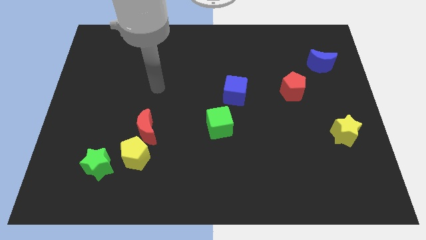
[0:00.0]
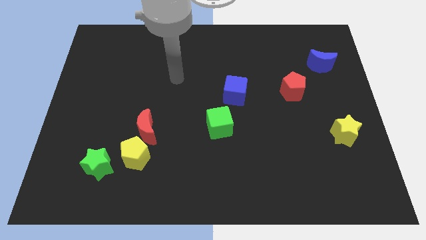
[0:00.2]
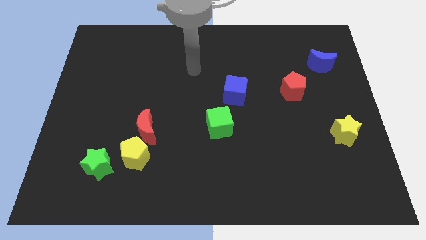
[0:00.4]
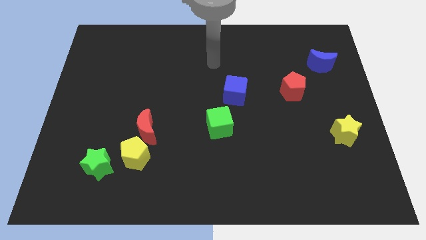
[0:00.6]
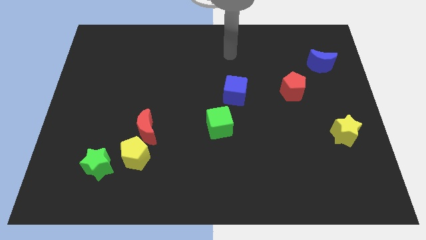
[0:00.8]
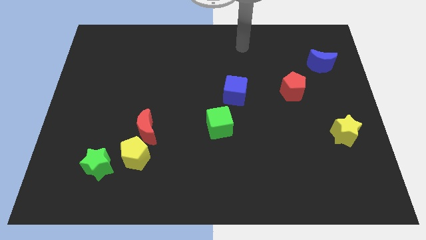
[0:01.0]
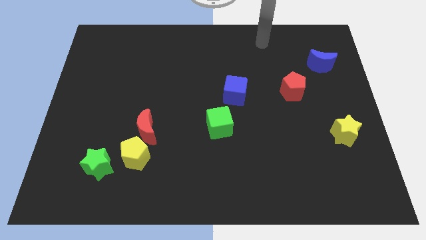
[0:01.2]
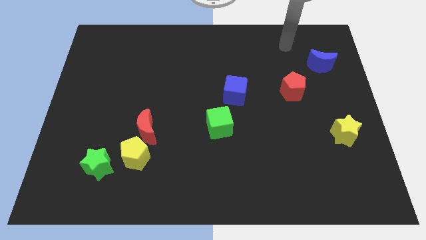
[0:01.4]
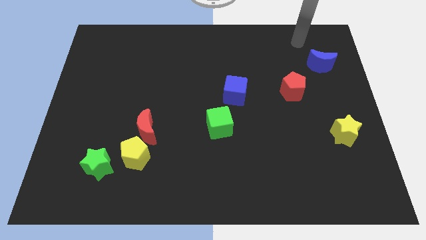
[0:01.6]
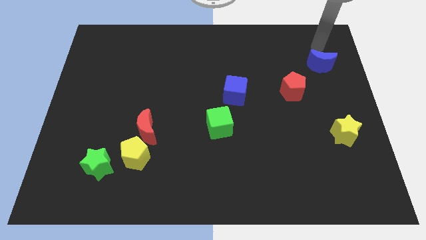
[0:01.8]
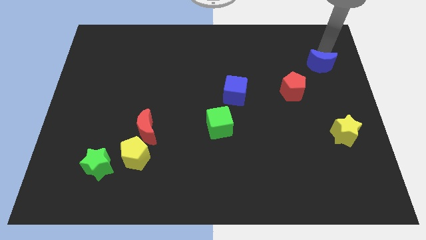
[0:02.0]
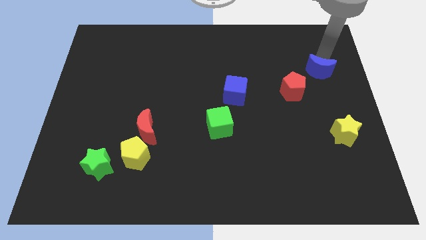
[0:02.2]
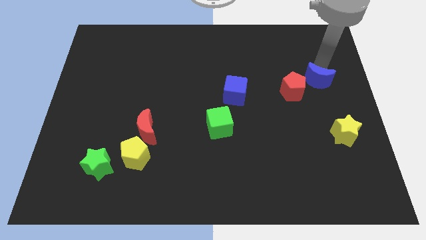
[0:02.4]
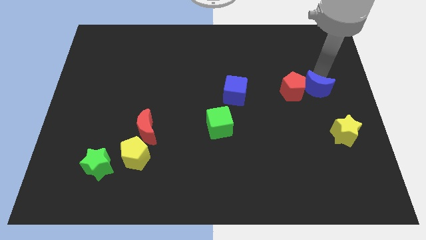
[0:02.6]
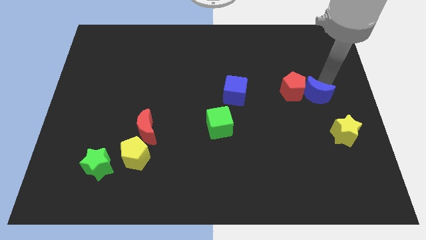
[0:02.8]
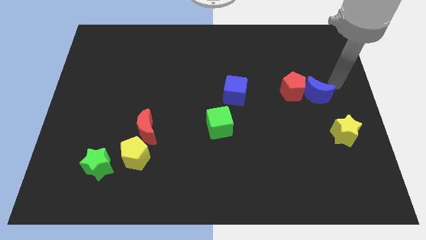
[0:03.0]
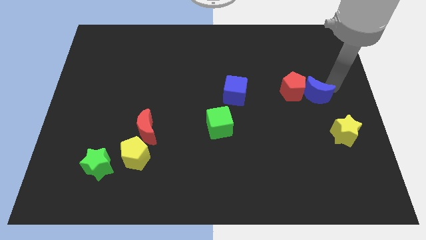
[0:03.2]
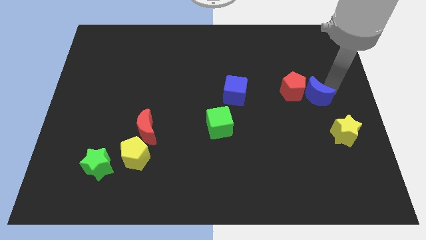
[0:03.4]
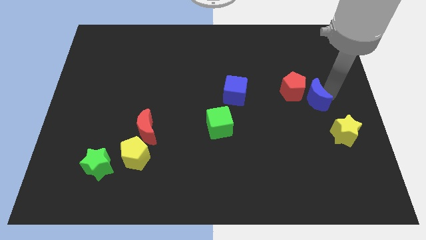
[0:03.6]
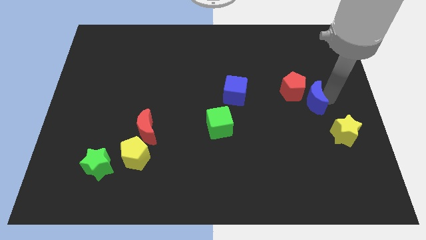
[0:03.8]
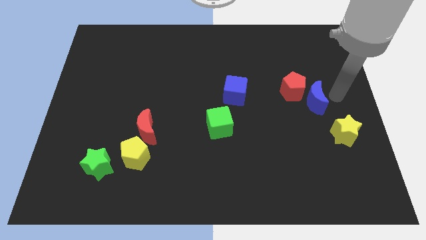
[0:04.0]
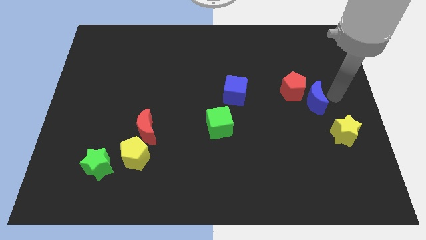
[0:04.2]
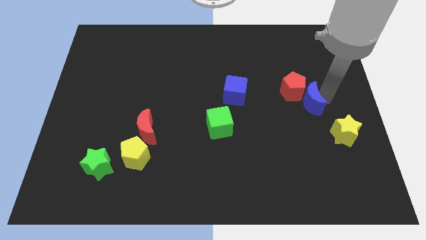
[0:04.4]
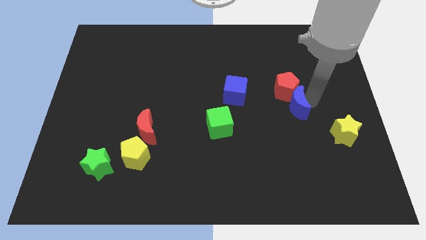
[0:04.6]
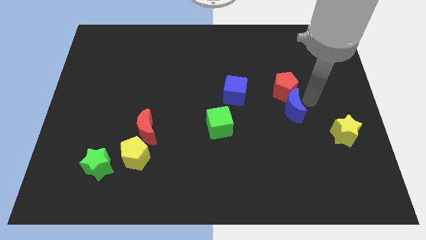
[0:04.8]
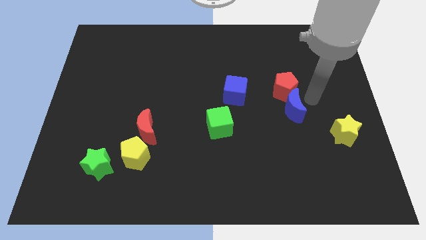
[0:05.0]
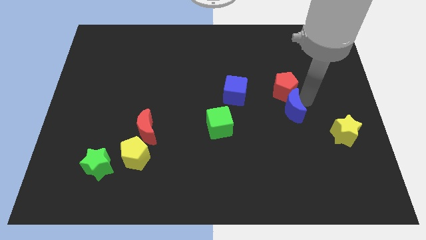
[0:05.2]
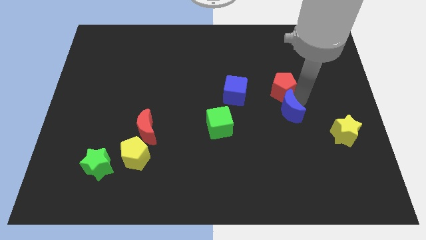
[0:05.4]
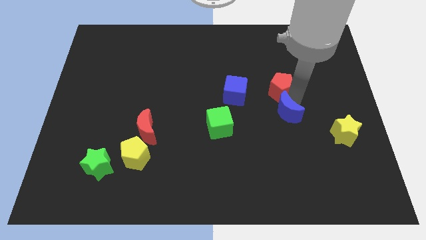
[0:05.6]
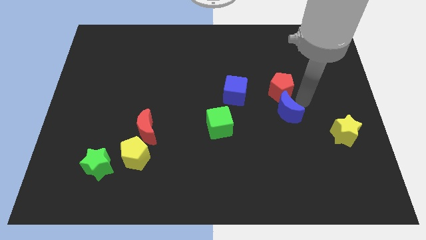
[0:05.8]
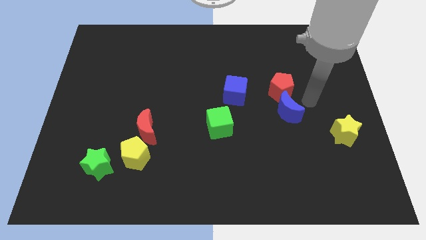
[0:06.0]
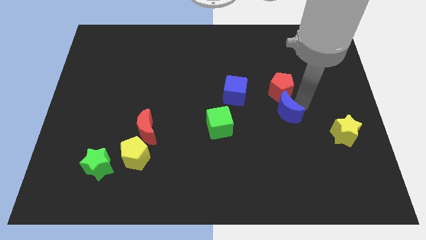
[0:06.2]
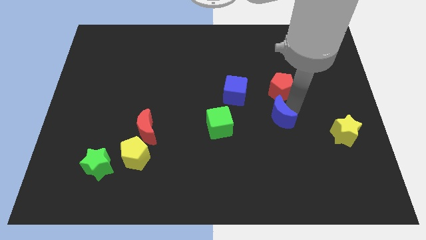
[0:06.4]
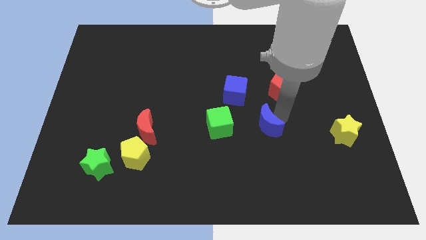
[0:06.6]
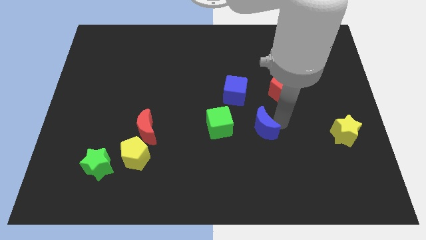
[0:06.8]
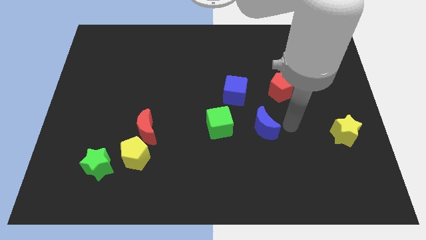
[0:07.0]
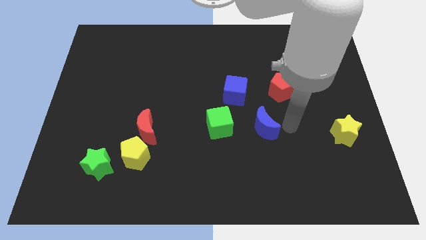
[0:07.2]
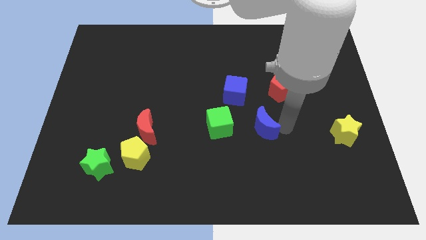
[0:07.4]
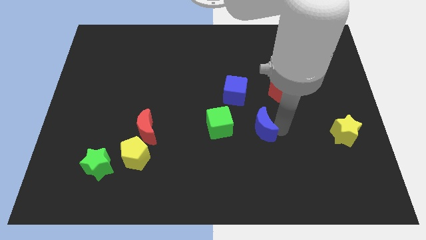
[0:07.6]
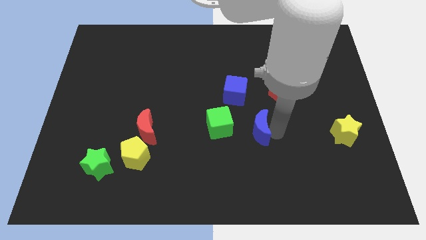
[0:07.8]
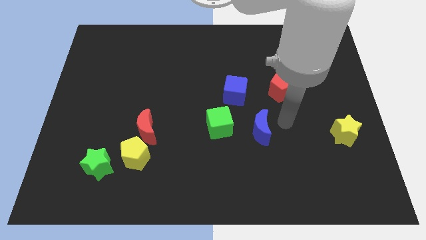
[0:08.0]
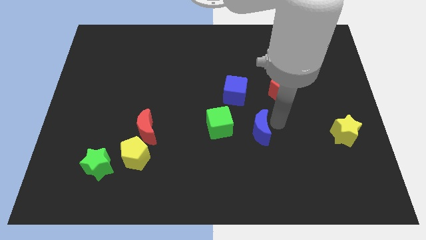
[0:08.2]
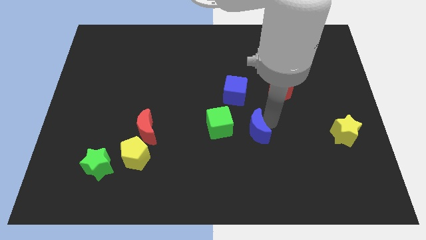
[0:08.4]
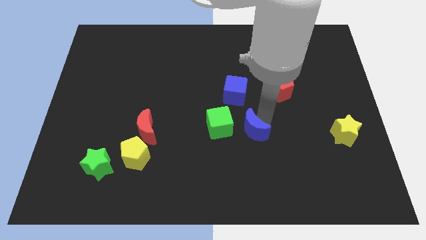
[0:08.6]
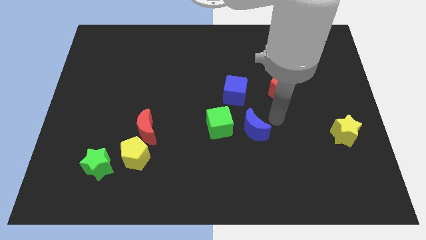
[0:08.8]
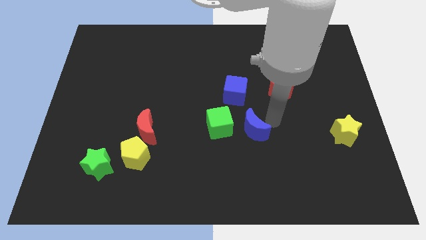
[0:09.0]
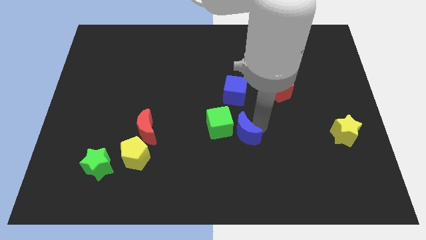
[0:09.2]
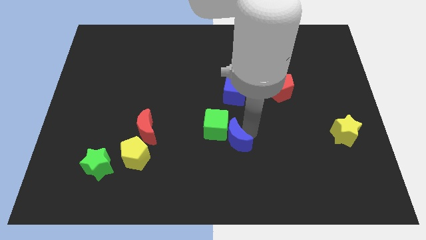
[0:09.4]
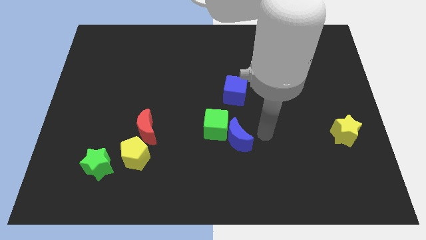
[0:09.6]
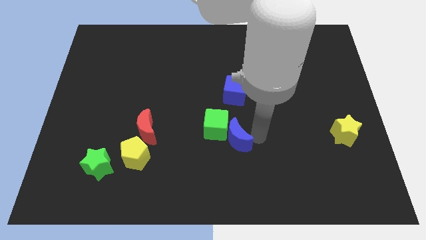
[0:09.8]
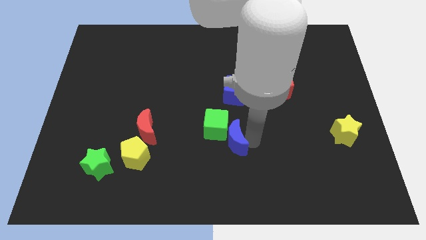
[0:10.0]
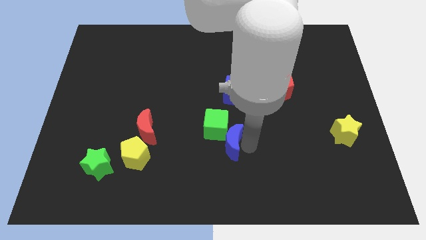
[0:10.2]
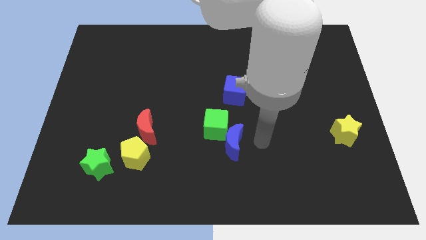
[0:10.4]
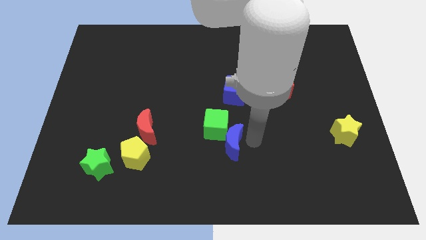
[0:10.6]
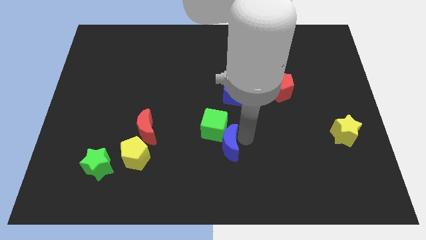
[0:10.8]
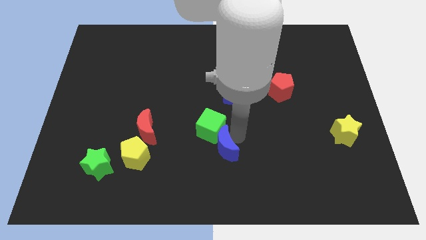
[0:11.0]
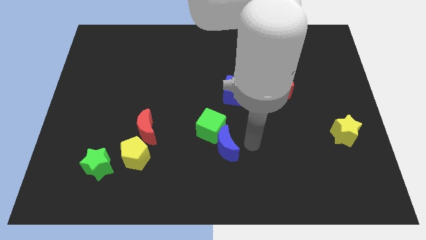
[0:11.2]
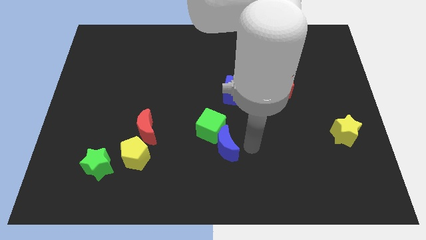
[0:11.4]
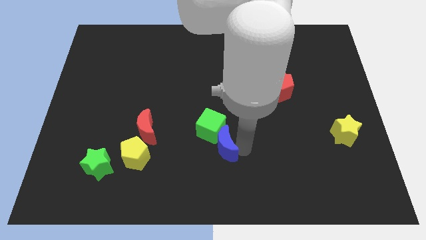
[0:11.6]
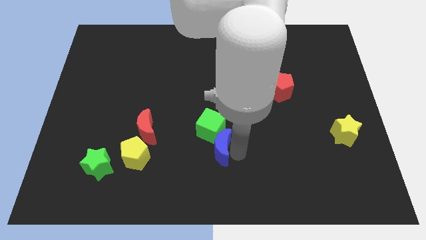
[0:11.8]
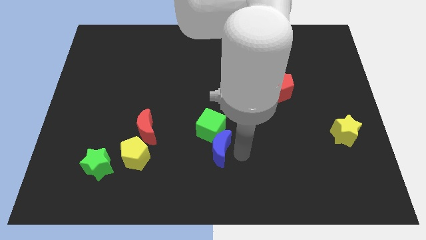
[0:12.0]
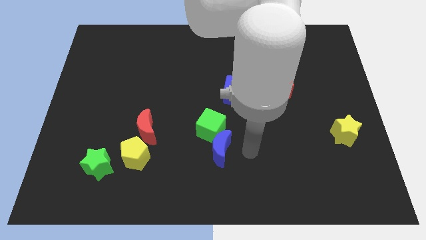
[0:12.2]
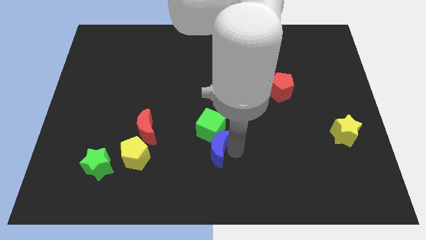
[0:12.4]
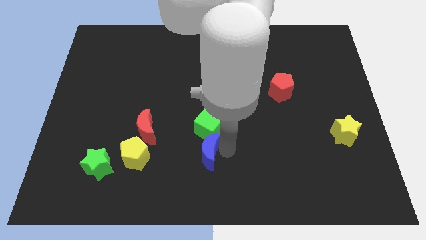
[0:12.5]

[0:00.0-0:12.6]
move the blue moon diagonally down and to the left of the green cube
